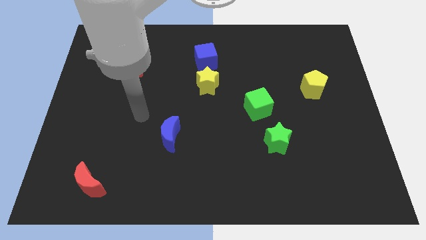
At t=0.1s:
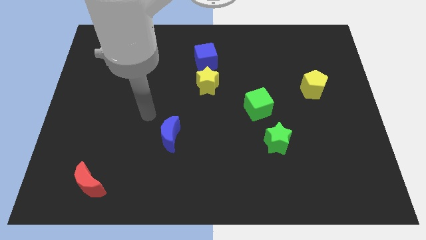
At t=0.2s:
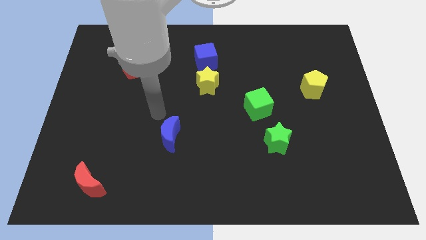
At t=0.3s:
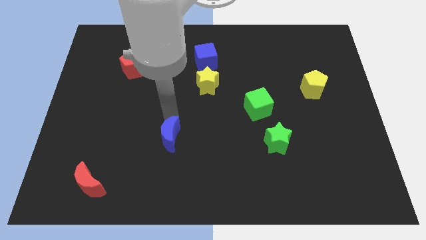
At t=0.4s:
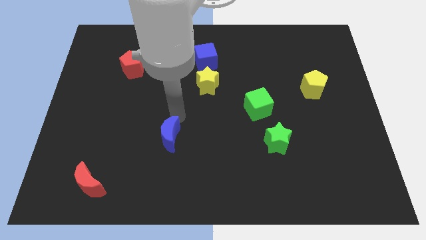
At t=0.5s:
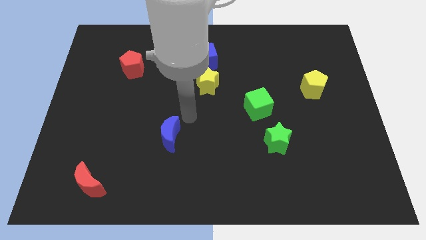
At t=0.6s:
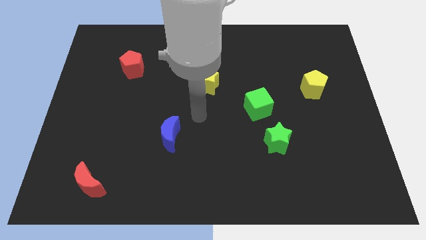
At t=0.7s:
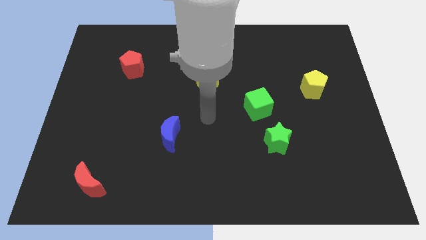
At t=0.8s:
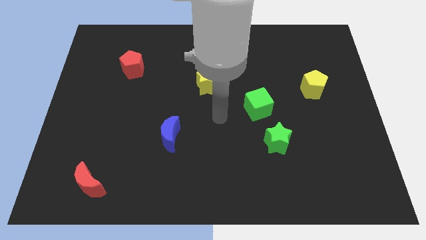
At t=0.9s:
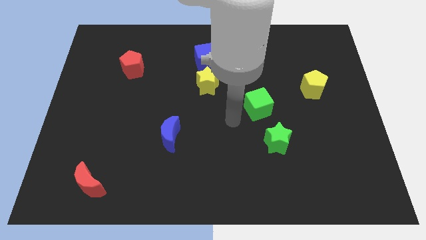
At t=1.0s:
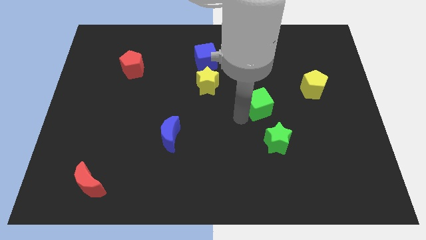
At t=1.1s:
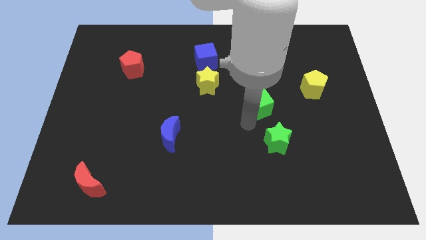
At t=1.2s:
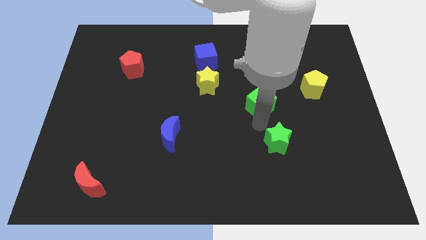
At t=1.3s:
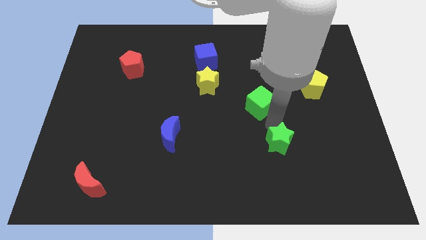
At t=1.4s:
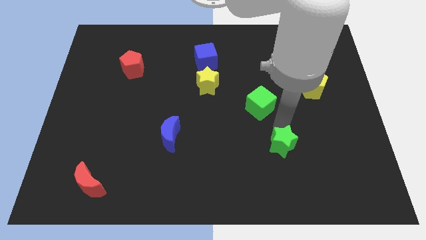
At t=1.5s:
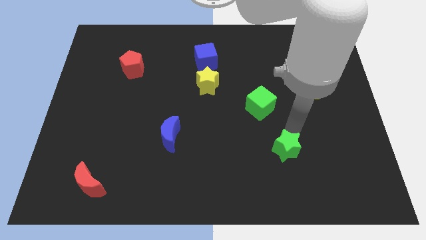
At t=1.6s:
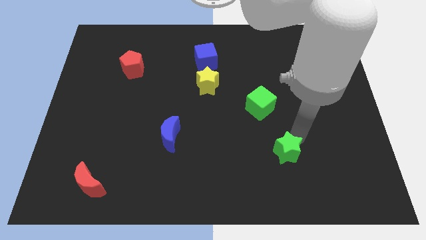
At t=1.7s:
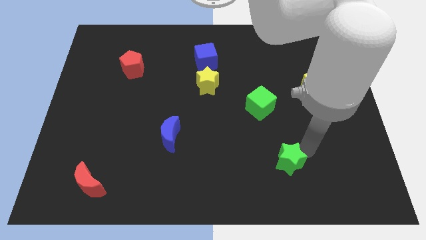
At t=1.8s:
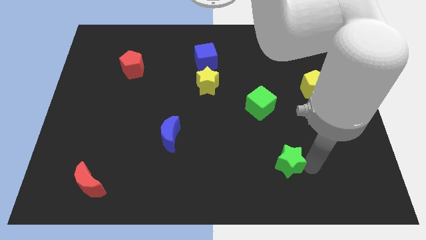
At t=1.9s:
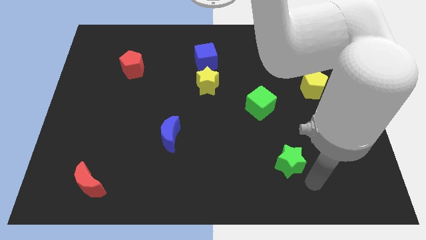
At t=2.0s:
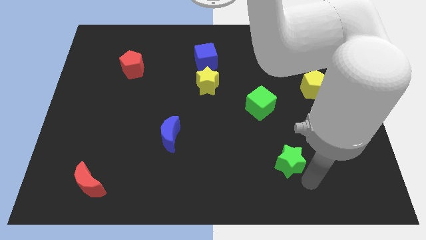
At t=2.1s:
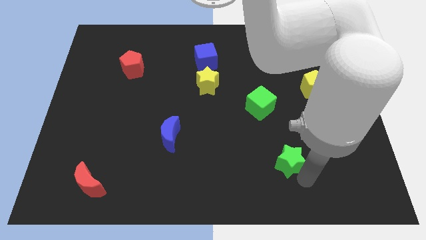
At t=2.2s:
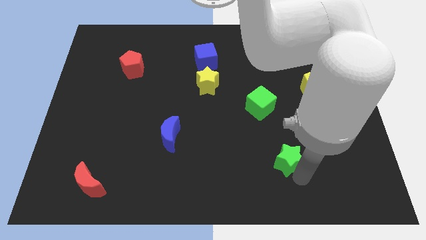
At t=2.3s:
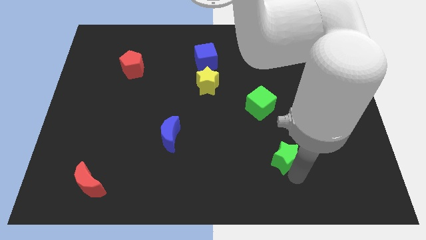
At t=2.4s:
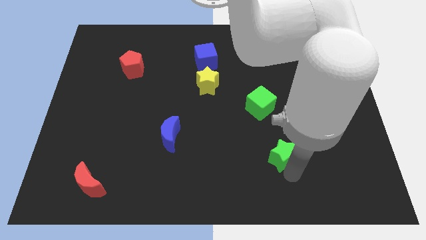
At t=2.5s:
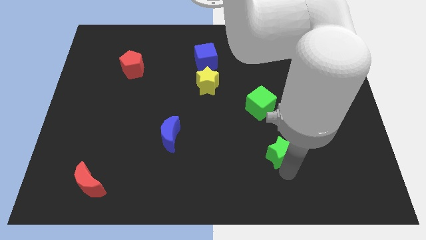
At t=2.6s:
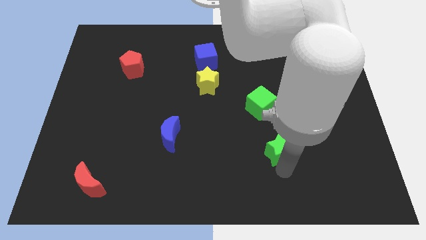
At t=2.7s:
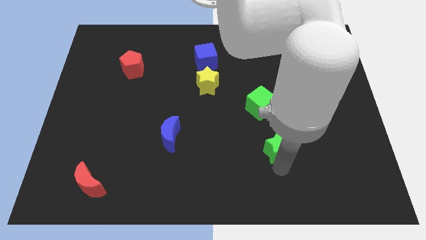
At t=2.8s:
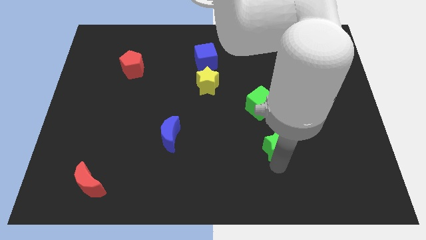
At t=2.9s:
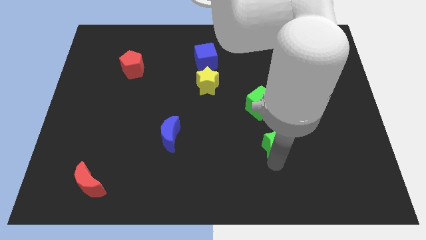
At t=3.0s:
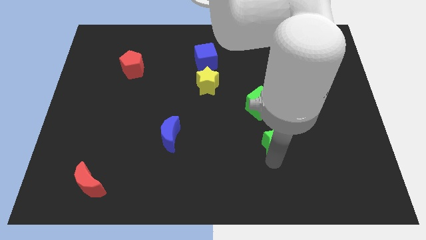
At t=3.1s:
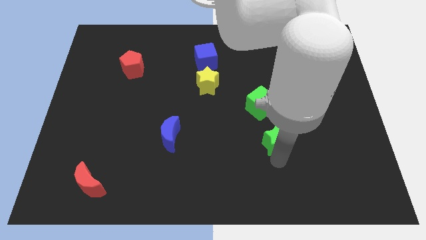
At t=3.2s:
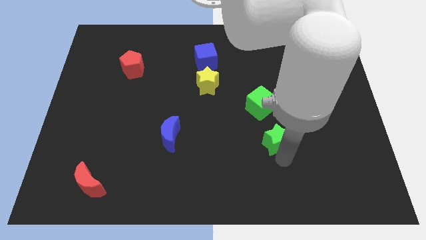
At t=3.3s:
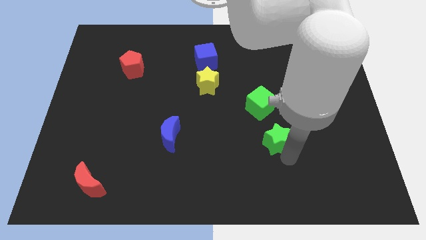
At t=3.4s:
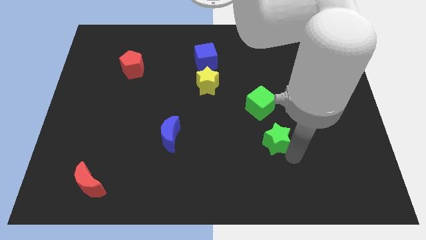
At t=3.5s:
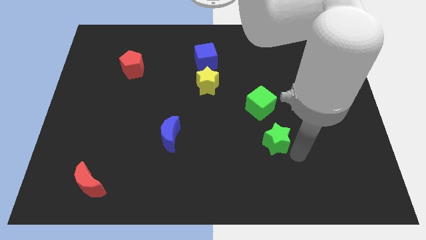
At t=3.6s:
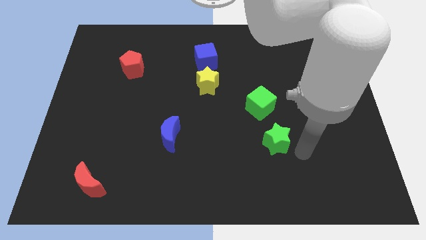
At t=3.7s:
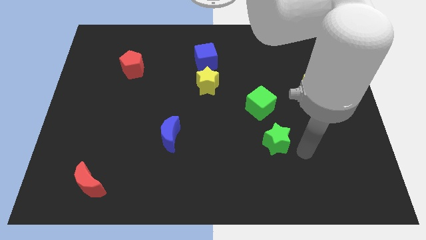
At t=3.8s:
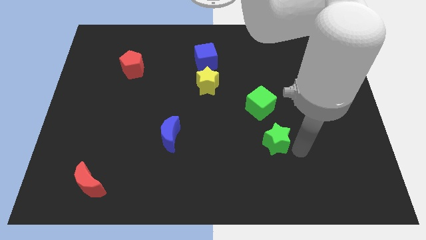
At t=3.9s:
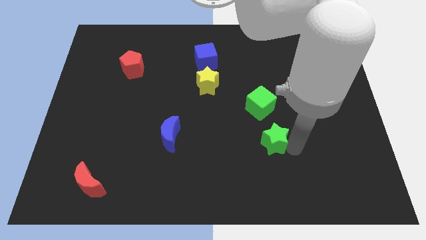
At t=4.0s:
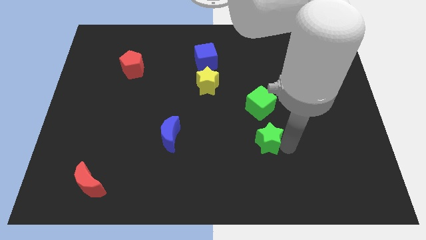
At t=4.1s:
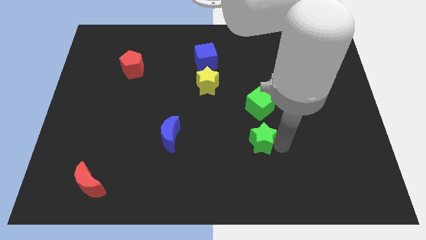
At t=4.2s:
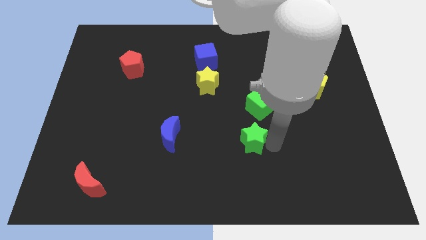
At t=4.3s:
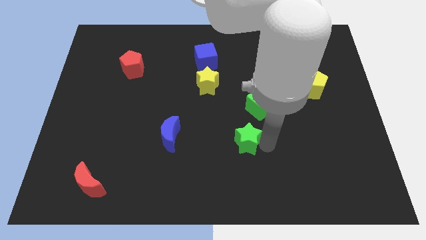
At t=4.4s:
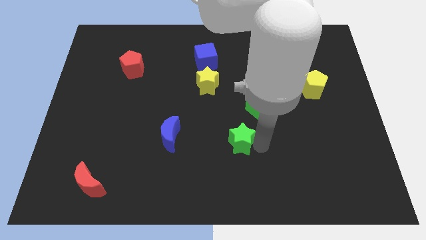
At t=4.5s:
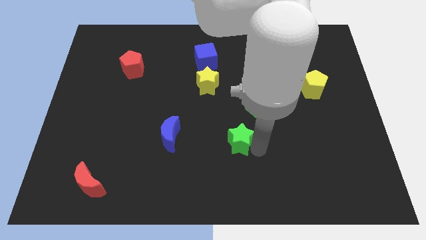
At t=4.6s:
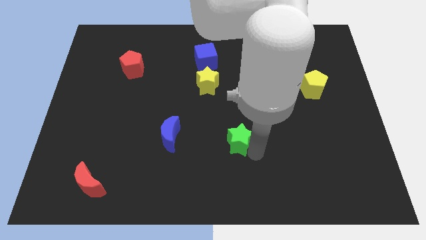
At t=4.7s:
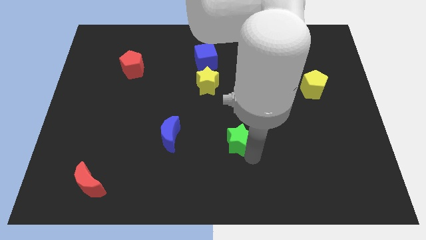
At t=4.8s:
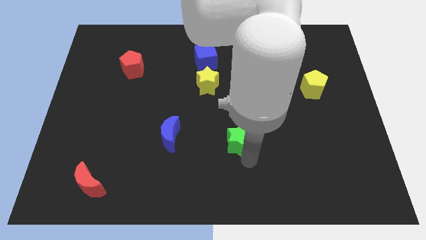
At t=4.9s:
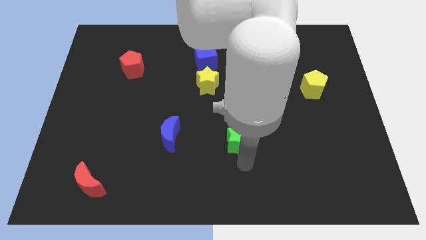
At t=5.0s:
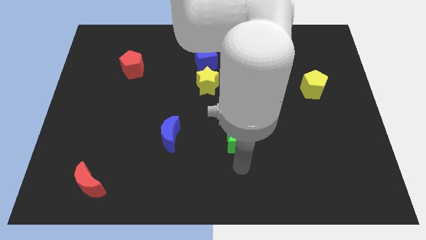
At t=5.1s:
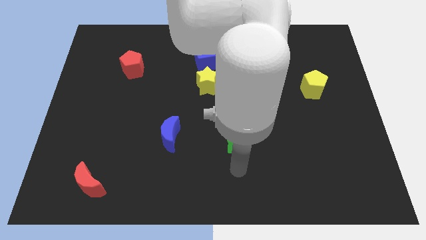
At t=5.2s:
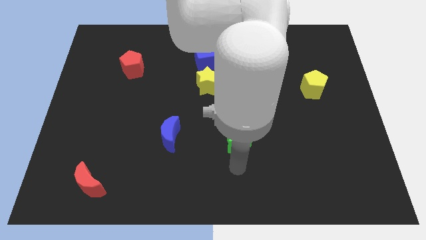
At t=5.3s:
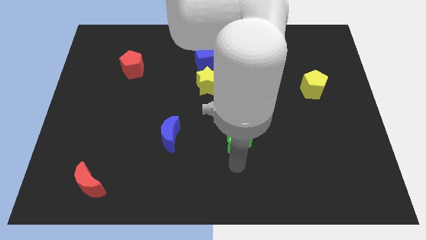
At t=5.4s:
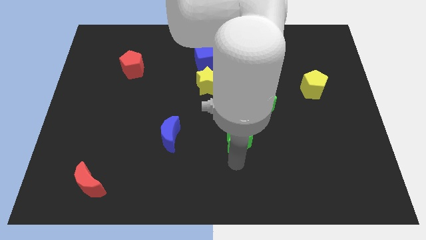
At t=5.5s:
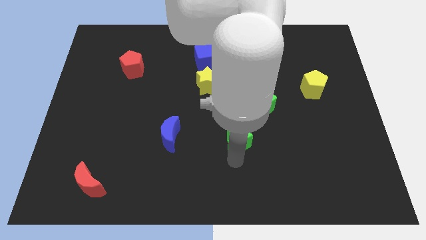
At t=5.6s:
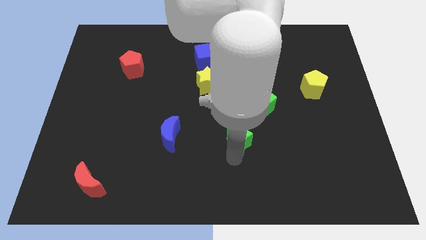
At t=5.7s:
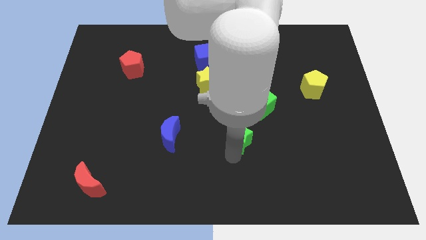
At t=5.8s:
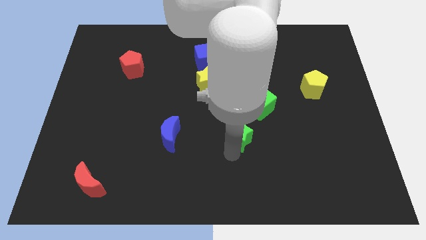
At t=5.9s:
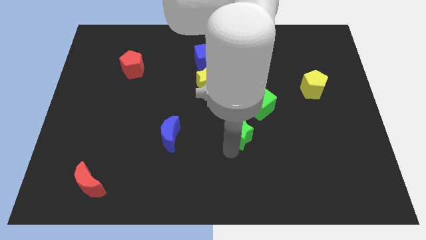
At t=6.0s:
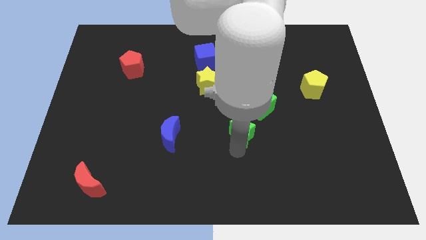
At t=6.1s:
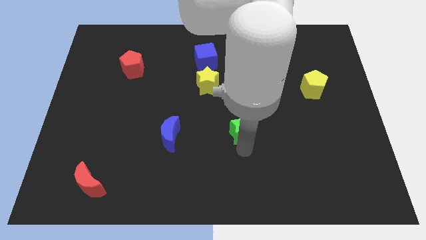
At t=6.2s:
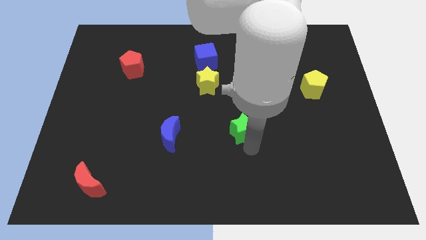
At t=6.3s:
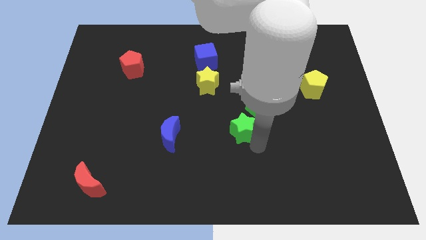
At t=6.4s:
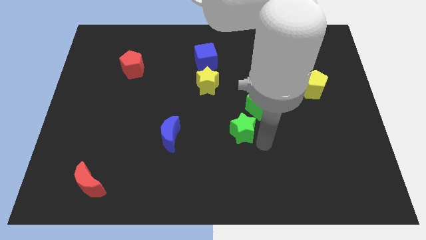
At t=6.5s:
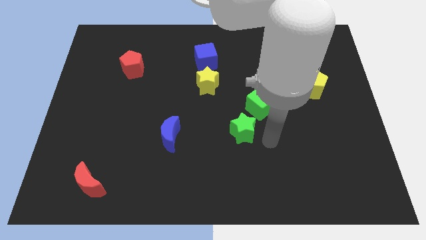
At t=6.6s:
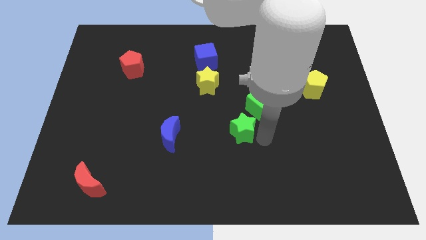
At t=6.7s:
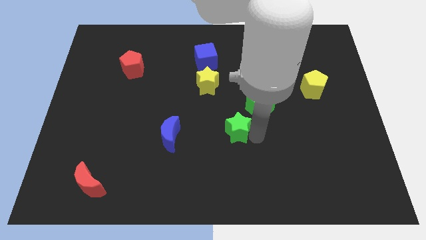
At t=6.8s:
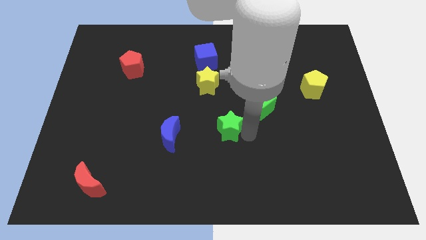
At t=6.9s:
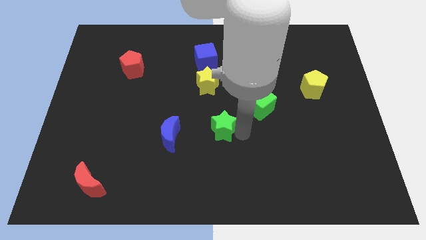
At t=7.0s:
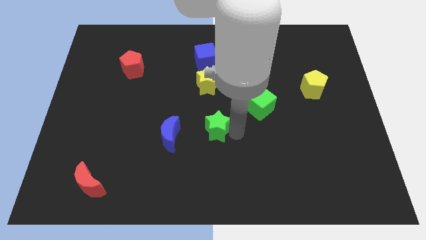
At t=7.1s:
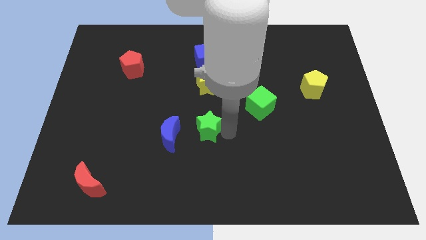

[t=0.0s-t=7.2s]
push the green star to the top right side of the blue moon
